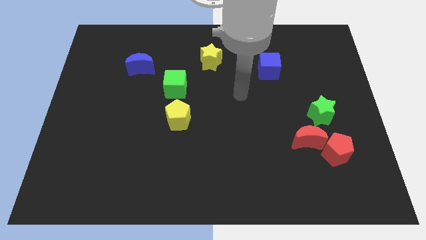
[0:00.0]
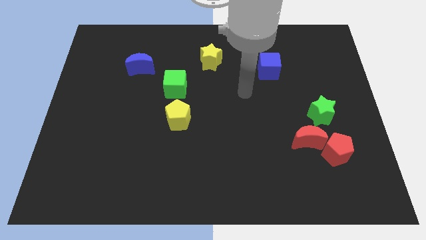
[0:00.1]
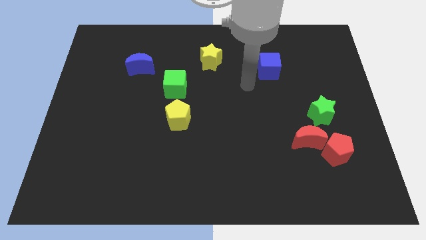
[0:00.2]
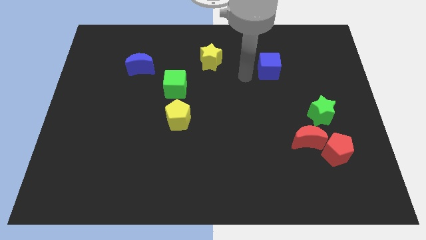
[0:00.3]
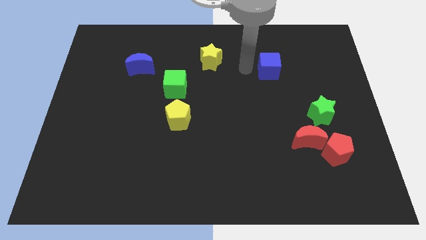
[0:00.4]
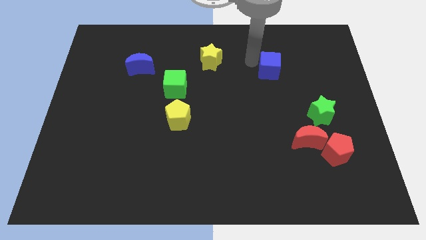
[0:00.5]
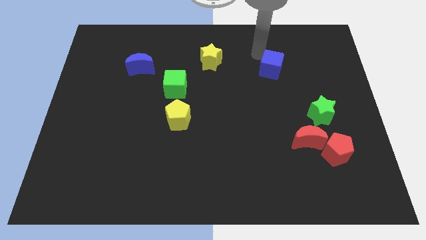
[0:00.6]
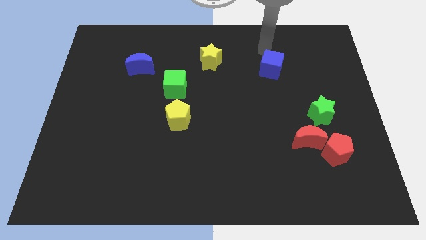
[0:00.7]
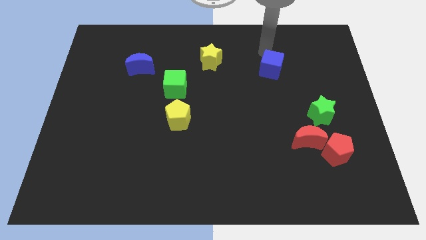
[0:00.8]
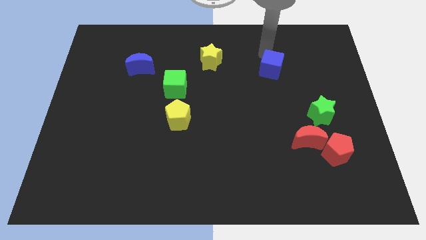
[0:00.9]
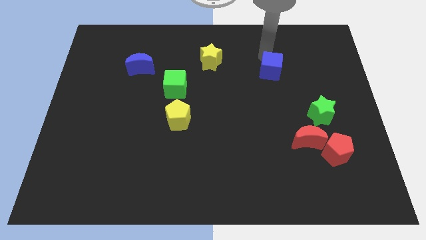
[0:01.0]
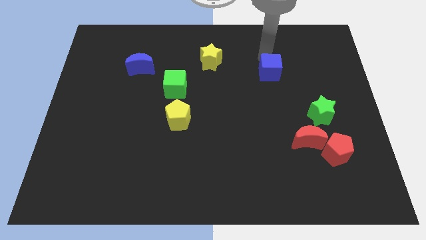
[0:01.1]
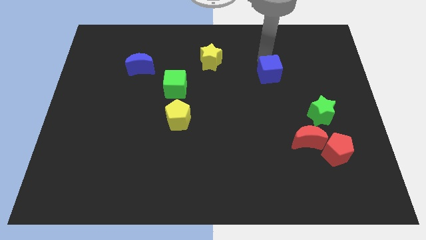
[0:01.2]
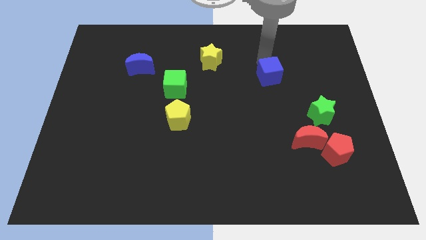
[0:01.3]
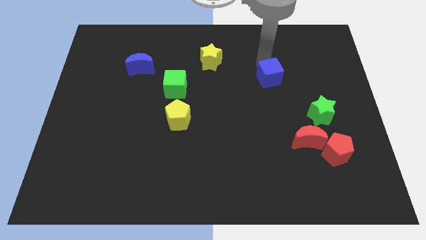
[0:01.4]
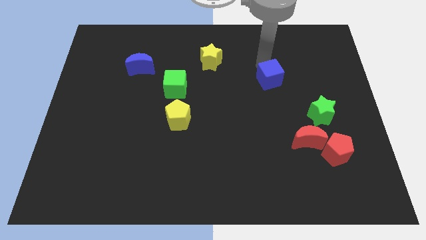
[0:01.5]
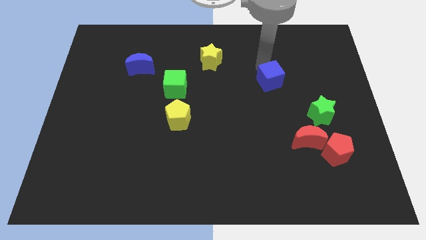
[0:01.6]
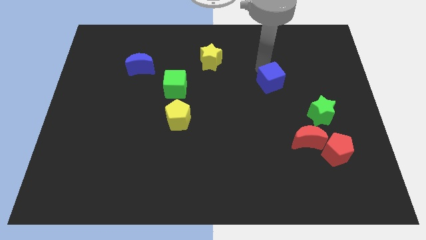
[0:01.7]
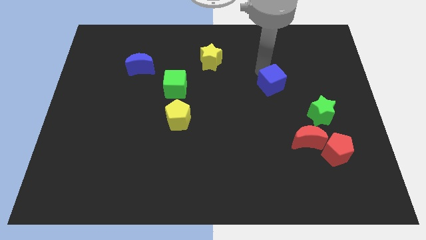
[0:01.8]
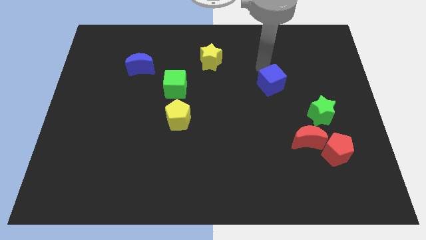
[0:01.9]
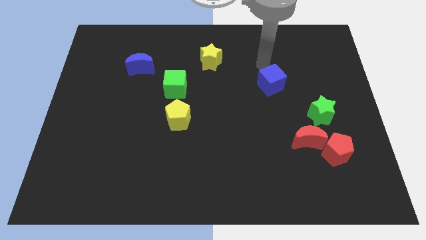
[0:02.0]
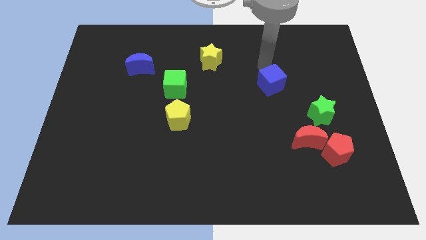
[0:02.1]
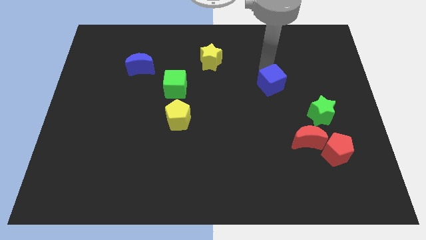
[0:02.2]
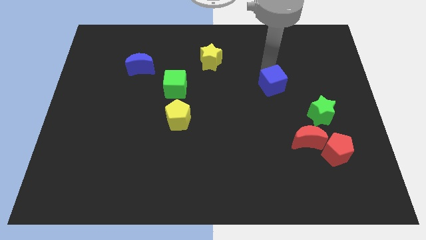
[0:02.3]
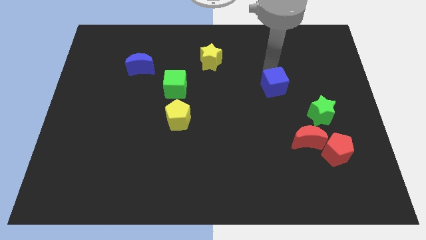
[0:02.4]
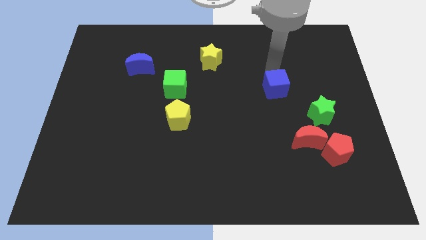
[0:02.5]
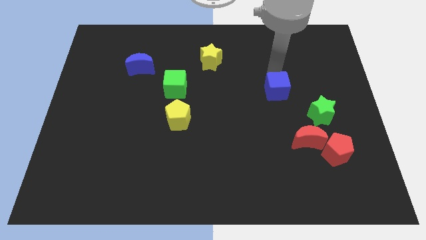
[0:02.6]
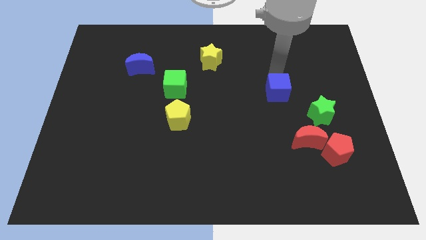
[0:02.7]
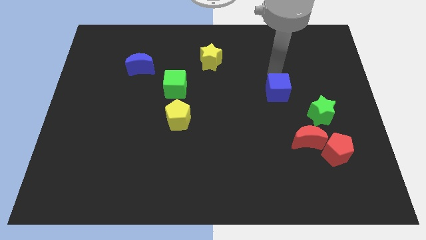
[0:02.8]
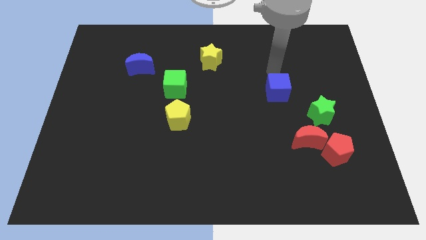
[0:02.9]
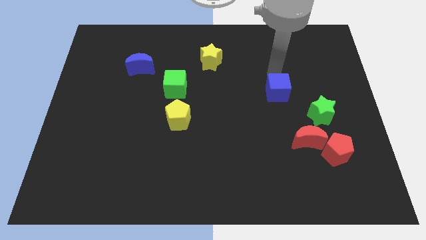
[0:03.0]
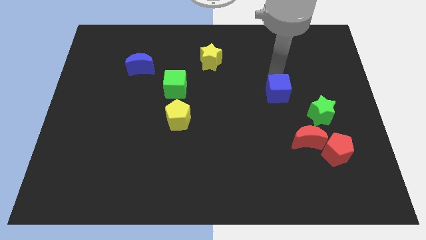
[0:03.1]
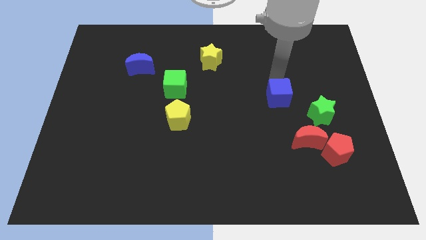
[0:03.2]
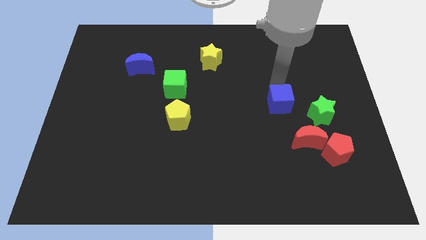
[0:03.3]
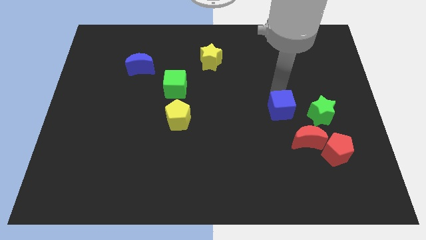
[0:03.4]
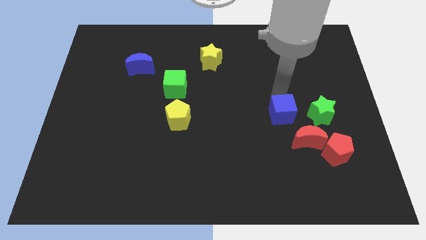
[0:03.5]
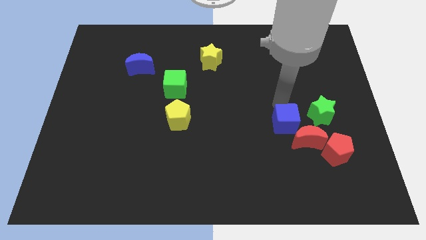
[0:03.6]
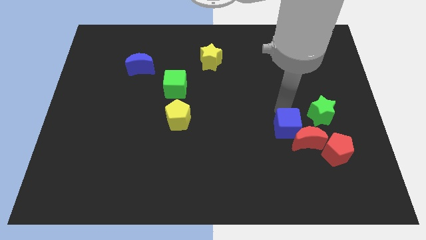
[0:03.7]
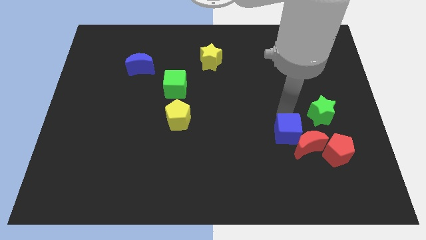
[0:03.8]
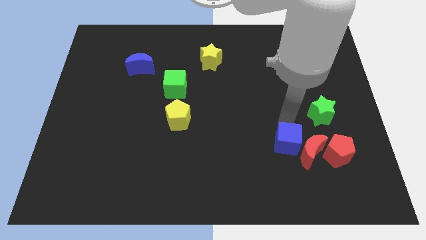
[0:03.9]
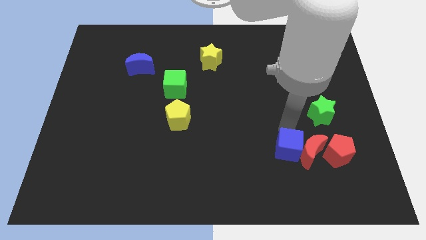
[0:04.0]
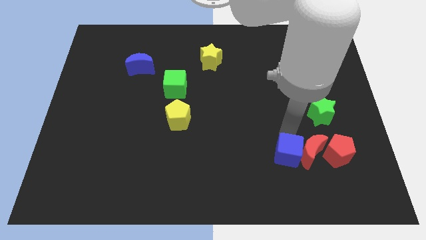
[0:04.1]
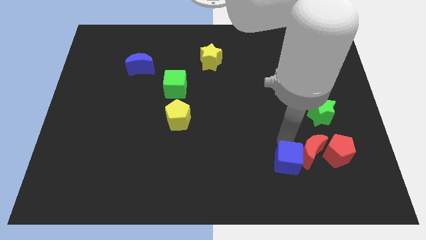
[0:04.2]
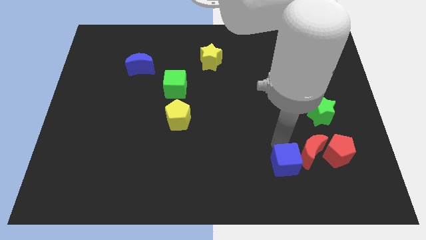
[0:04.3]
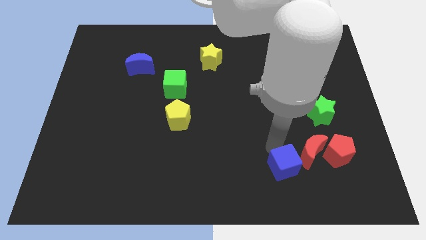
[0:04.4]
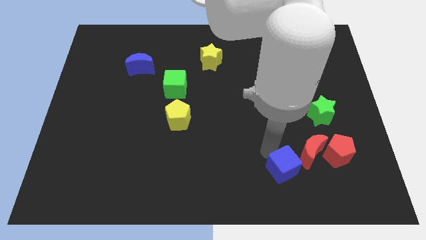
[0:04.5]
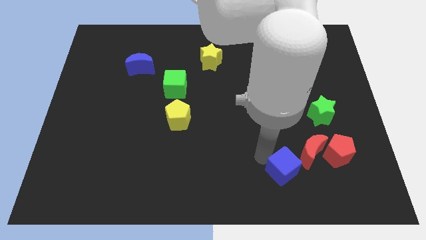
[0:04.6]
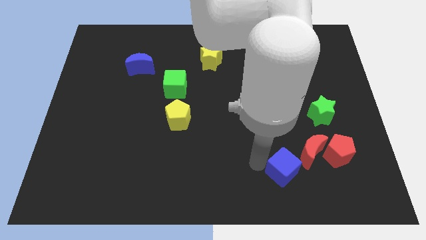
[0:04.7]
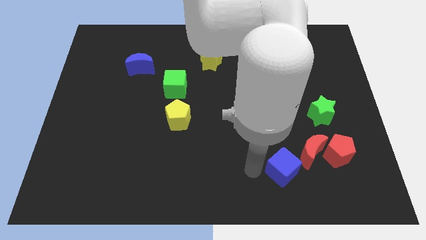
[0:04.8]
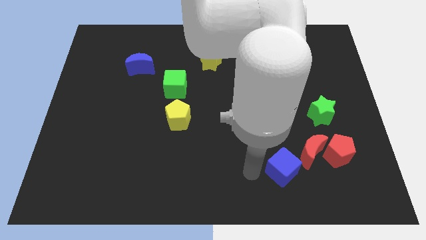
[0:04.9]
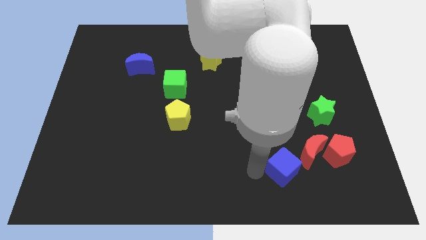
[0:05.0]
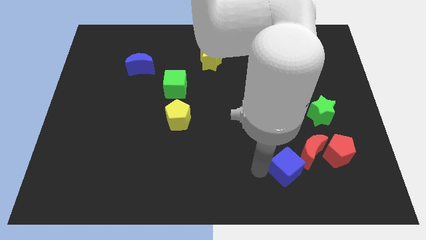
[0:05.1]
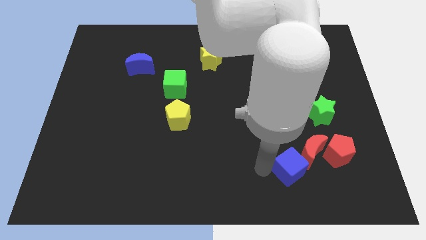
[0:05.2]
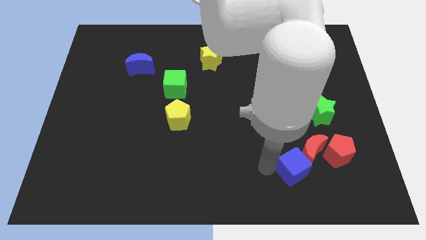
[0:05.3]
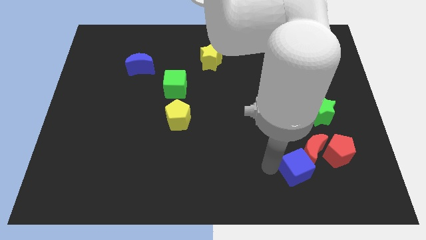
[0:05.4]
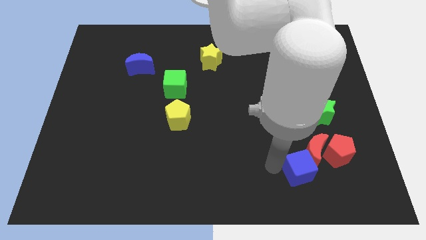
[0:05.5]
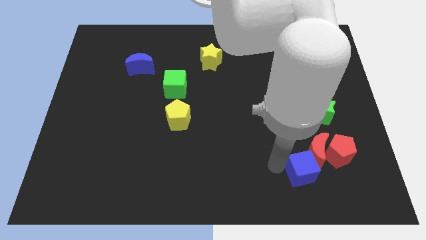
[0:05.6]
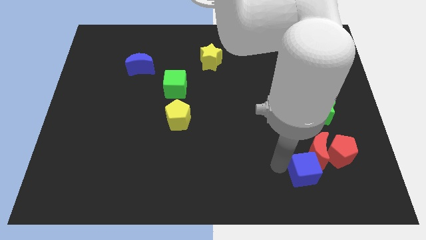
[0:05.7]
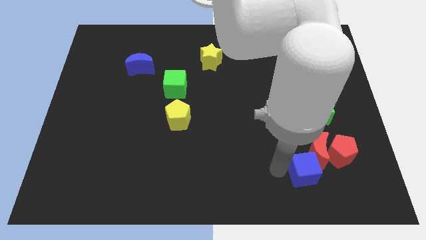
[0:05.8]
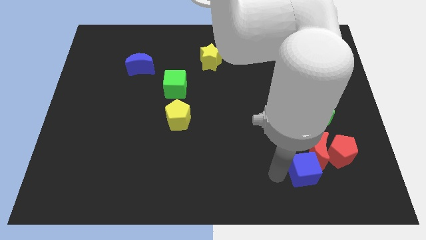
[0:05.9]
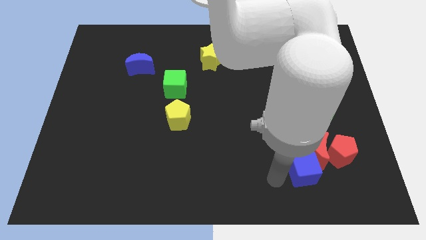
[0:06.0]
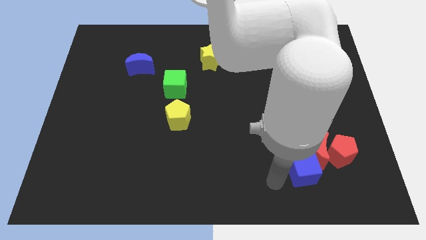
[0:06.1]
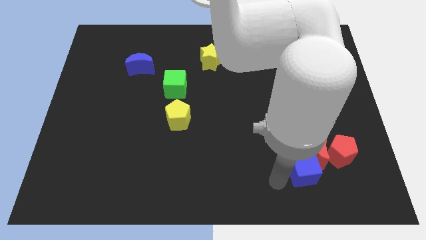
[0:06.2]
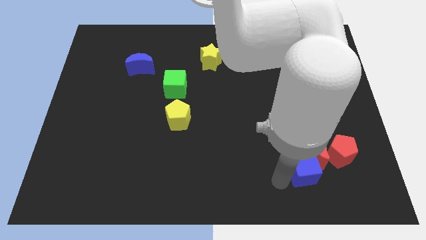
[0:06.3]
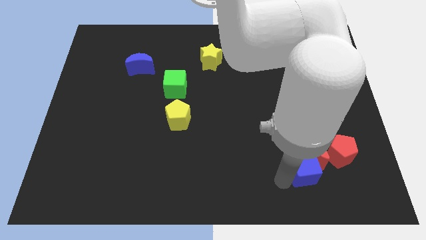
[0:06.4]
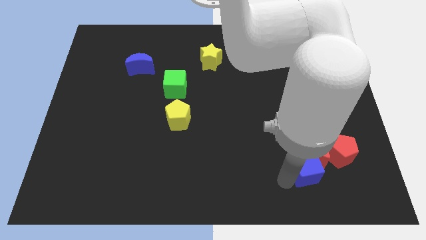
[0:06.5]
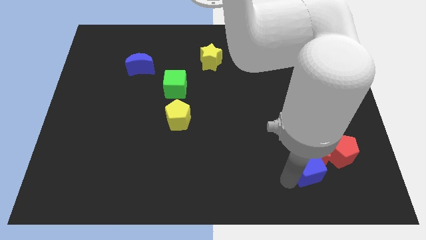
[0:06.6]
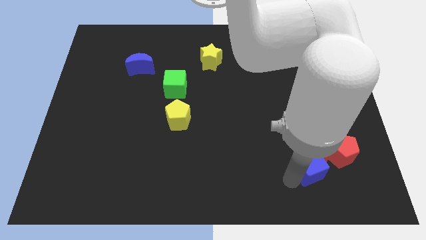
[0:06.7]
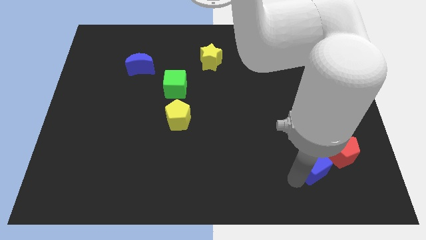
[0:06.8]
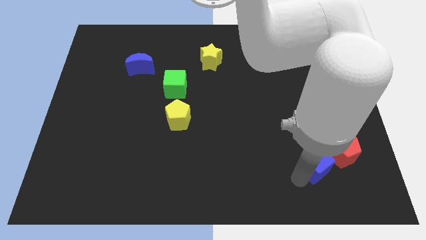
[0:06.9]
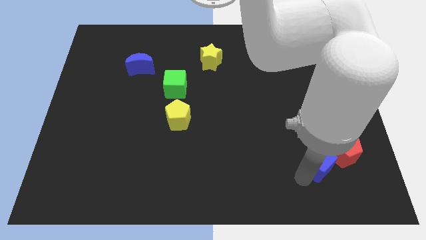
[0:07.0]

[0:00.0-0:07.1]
push the blue cube to the bottom right side of the red moon

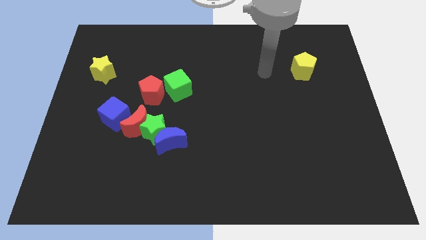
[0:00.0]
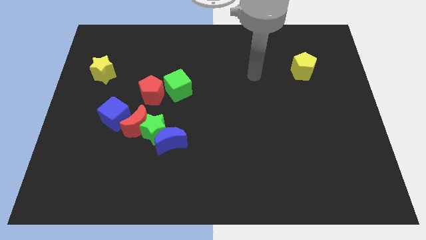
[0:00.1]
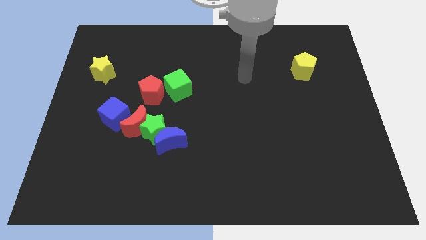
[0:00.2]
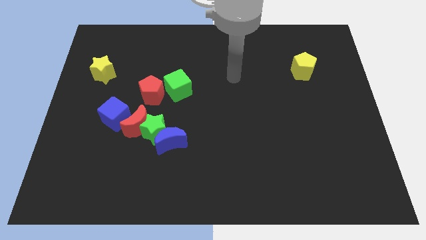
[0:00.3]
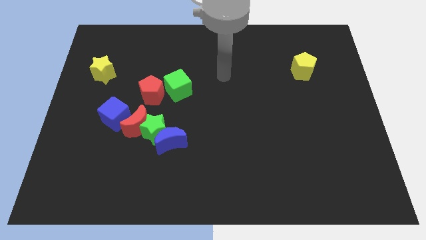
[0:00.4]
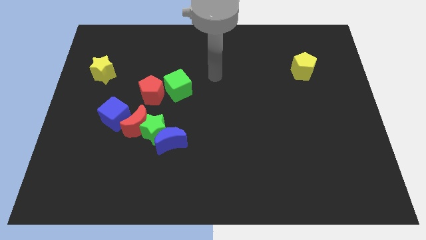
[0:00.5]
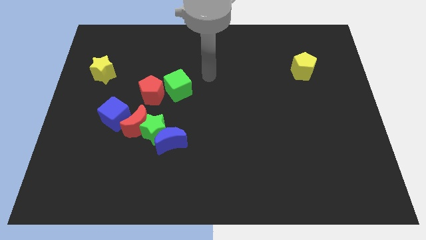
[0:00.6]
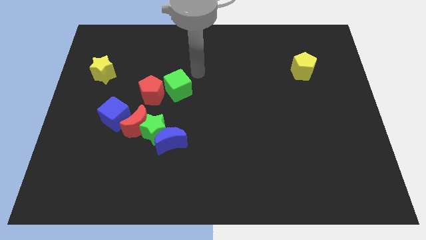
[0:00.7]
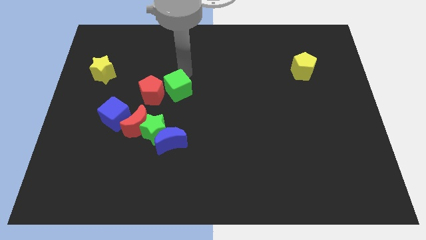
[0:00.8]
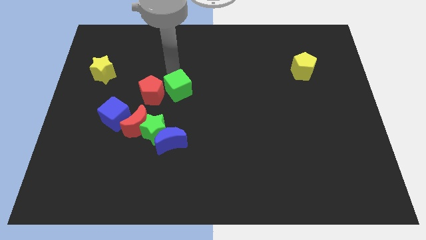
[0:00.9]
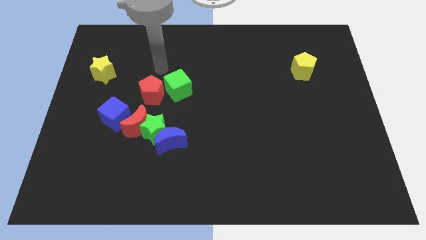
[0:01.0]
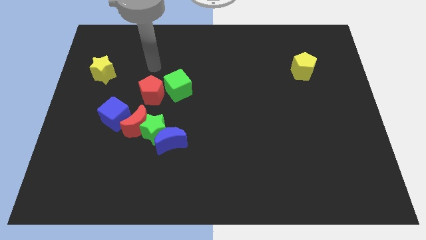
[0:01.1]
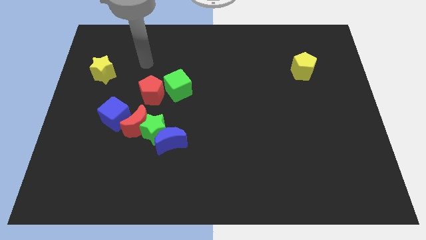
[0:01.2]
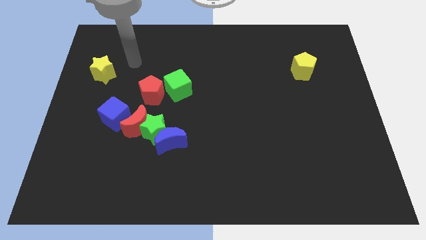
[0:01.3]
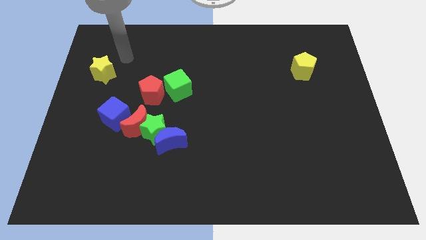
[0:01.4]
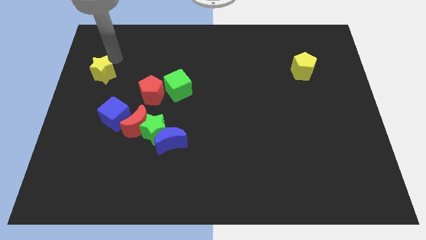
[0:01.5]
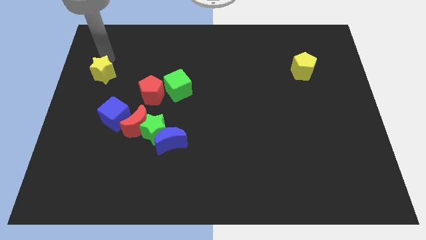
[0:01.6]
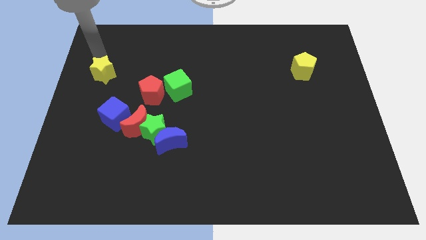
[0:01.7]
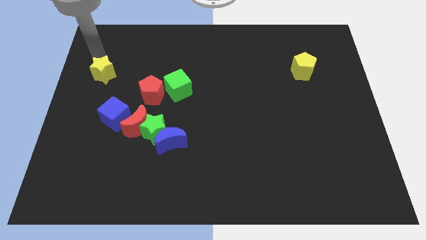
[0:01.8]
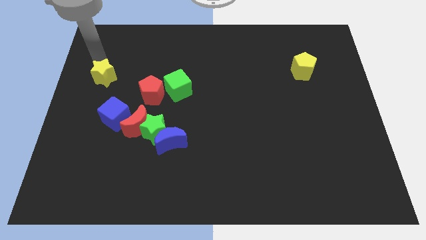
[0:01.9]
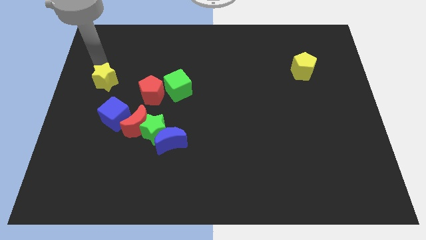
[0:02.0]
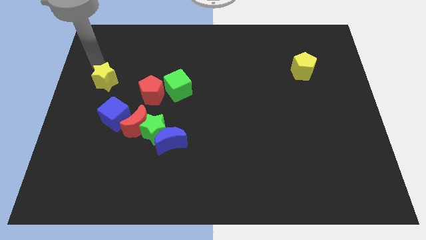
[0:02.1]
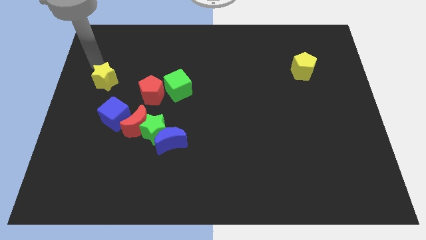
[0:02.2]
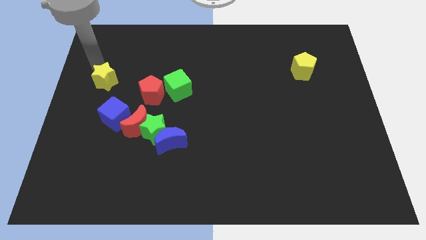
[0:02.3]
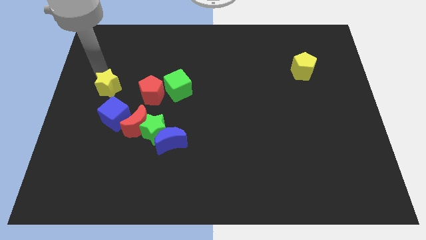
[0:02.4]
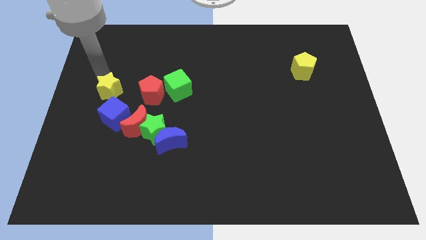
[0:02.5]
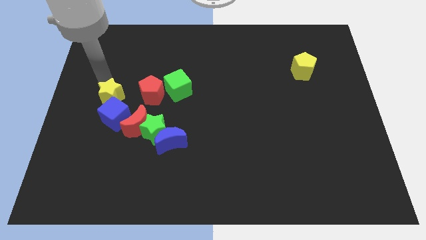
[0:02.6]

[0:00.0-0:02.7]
slide the yellow star diagonally up and to the left of the red moon
